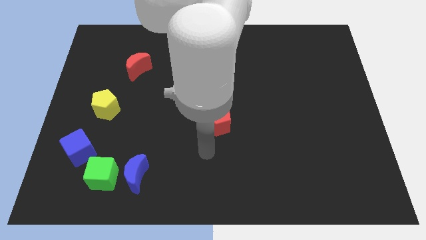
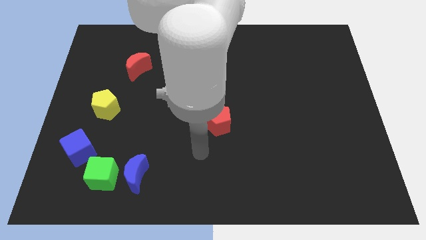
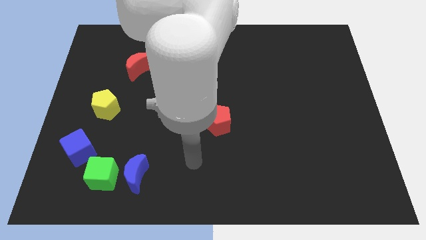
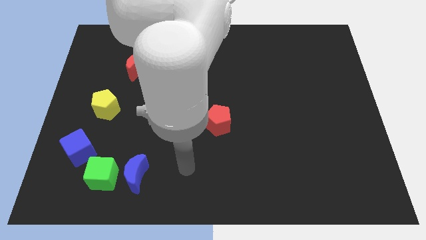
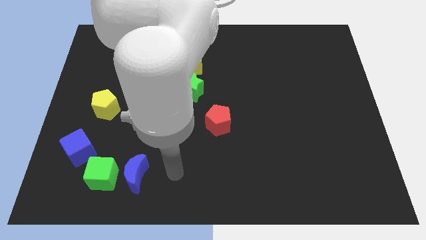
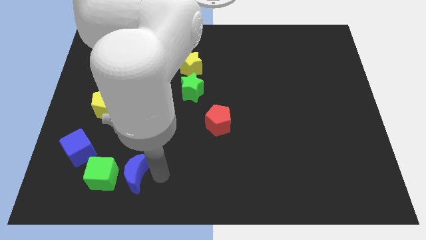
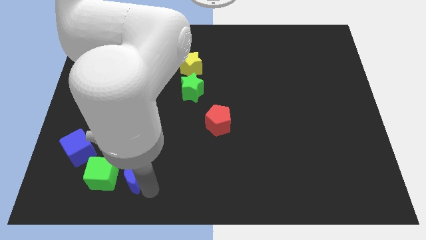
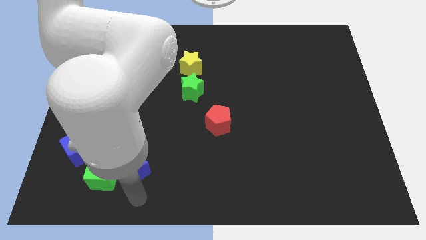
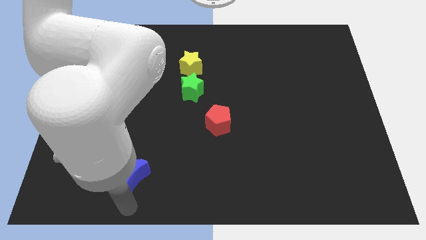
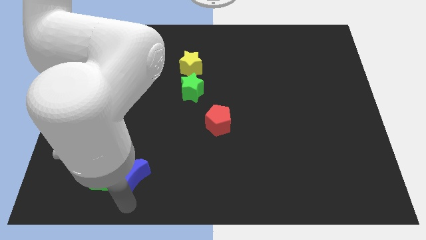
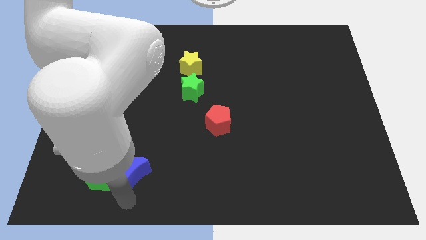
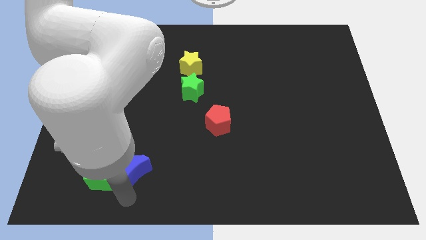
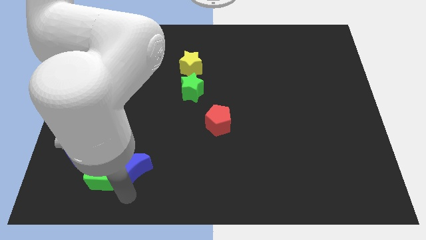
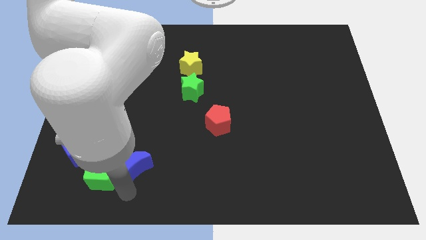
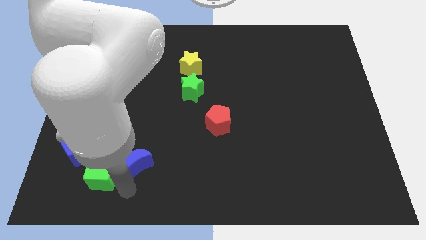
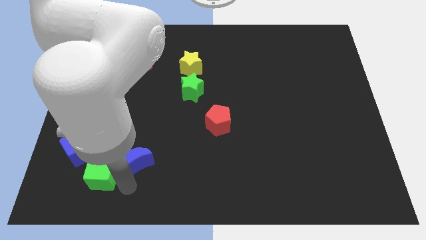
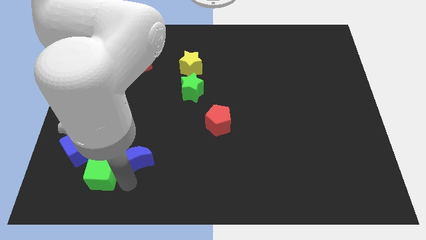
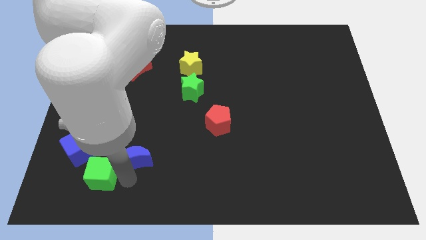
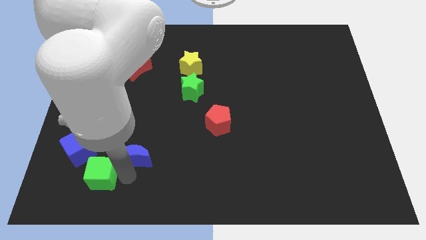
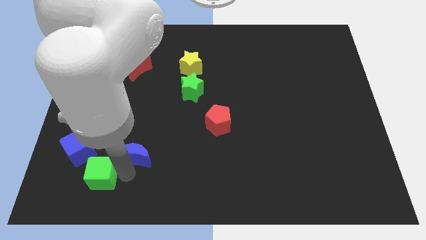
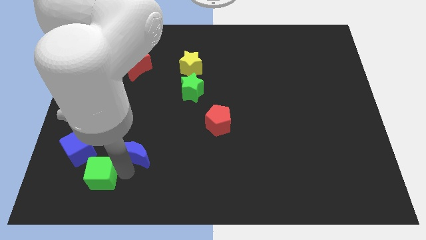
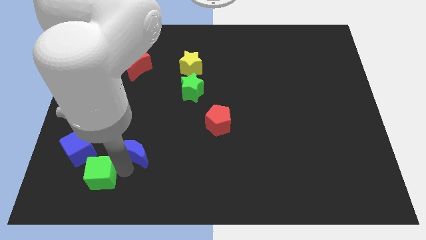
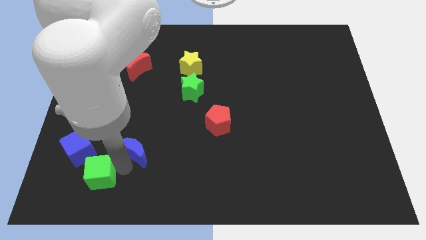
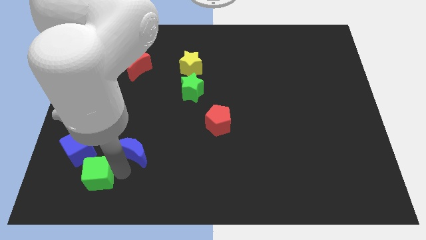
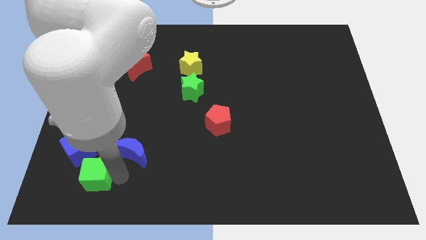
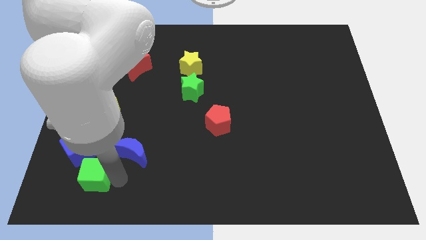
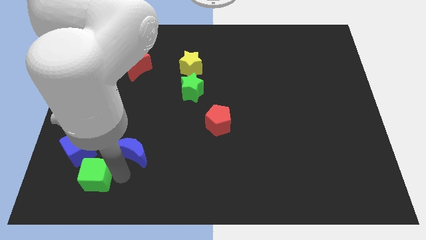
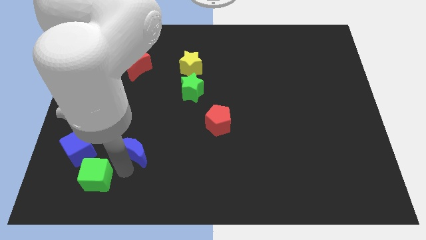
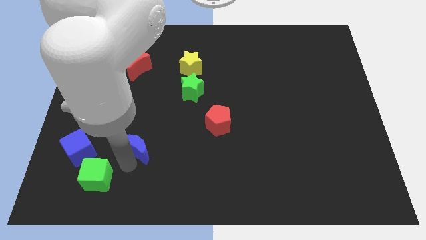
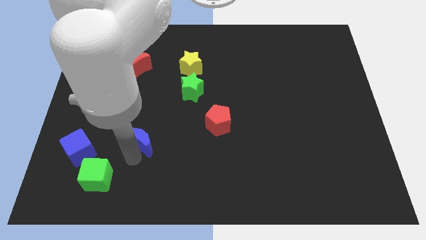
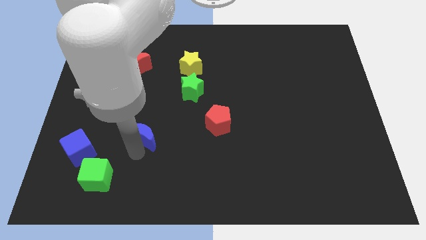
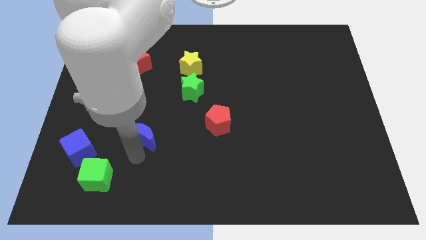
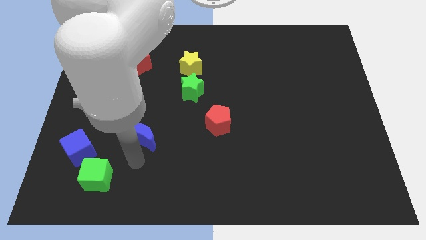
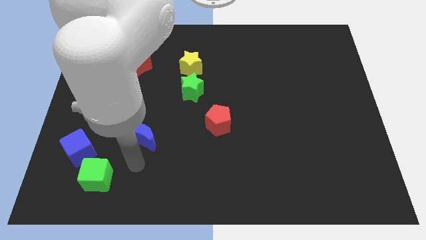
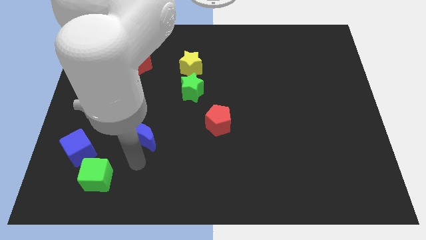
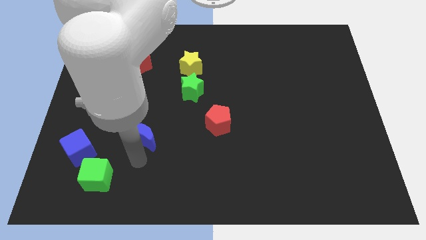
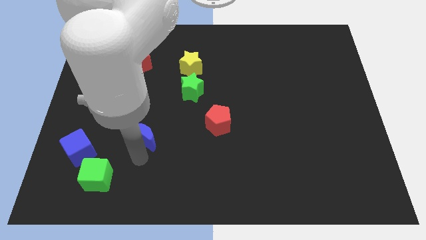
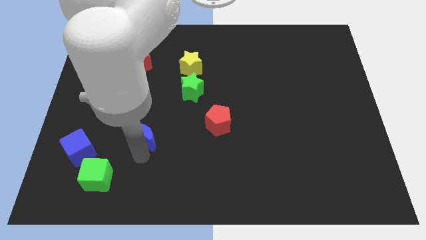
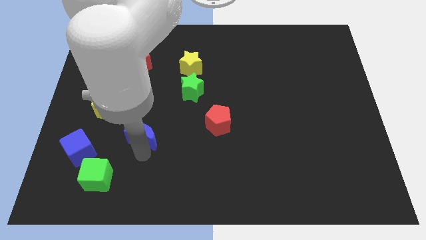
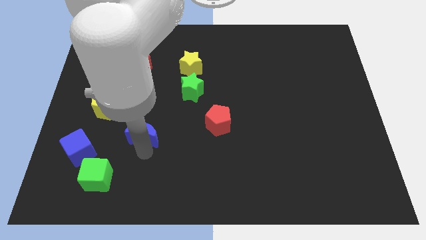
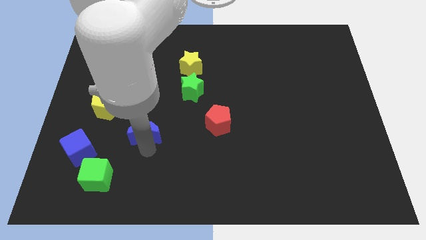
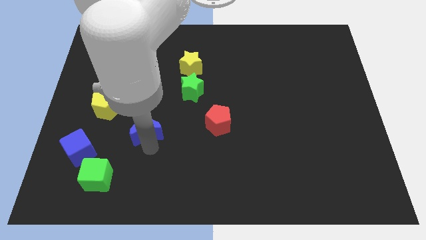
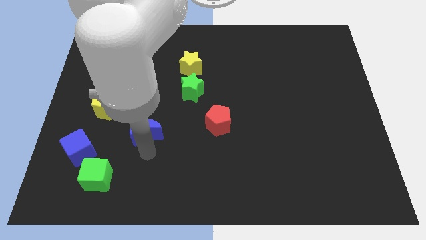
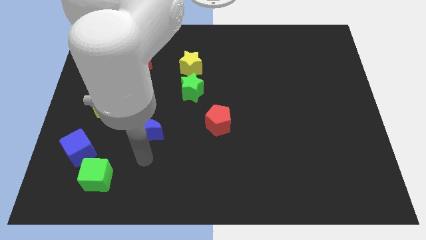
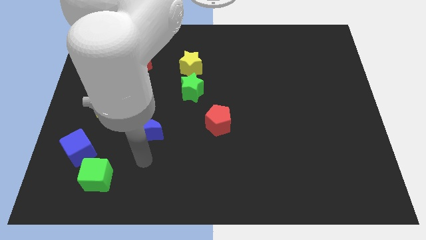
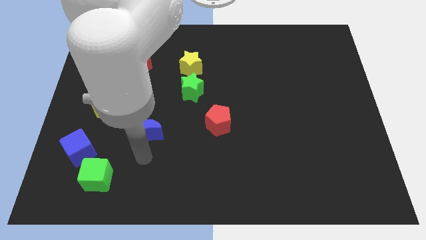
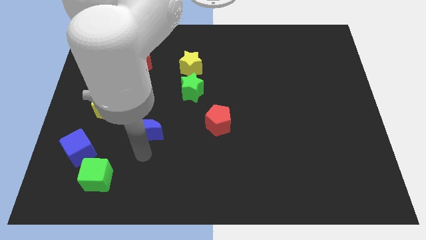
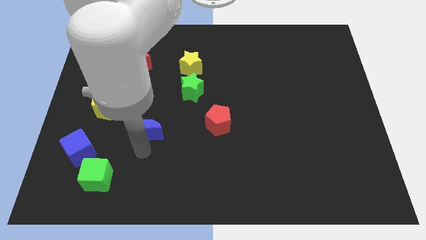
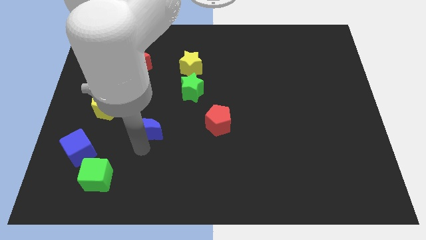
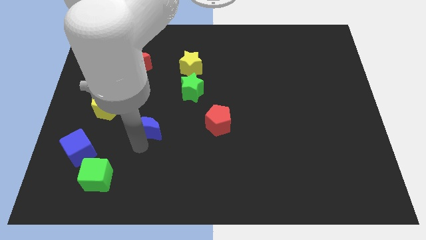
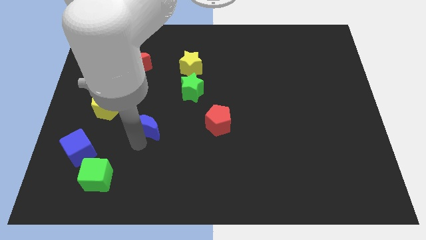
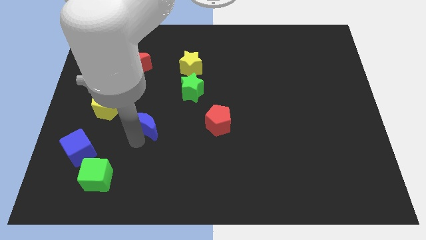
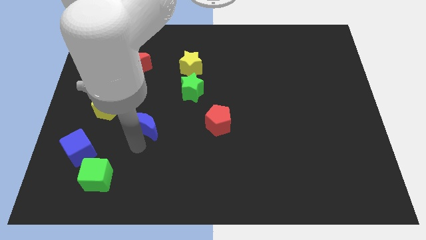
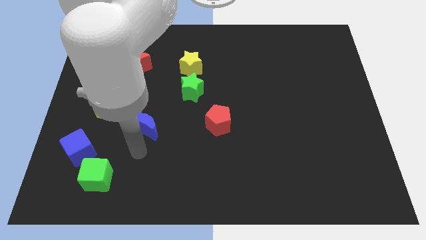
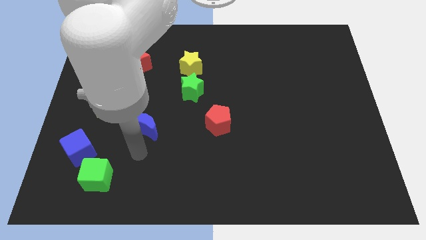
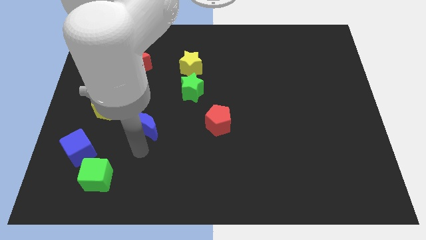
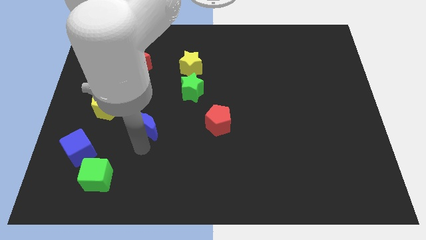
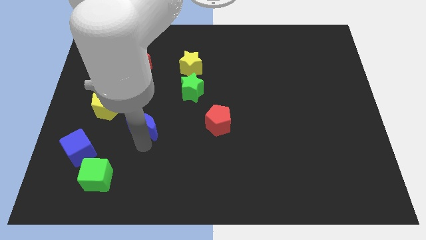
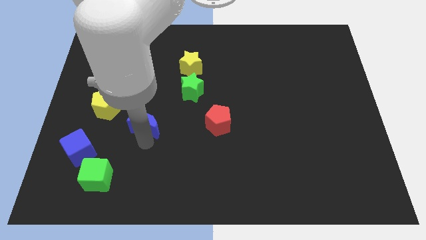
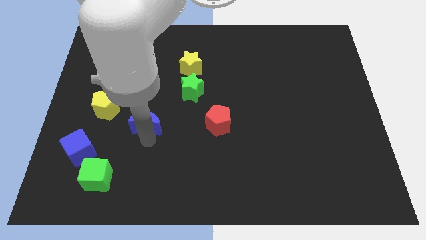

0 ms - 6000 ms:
put the blue moon just right of the yellow pentagon

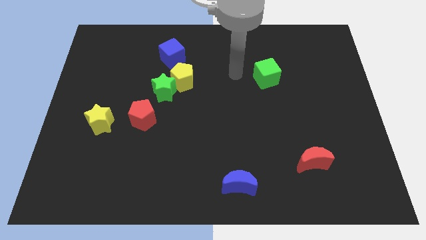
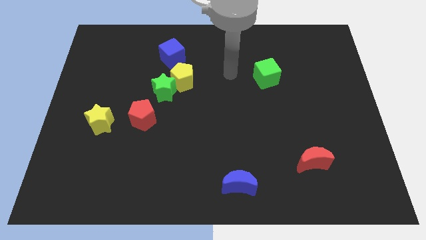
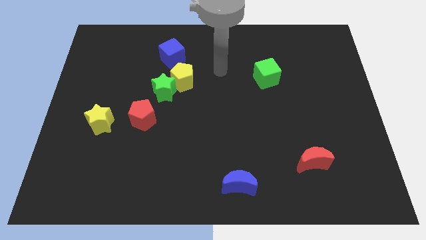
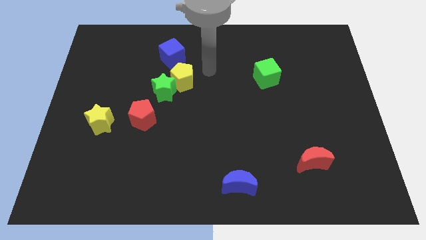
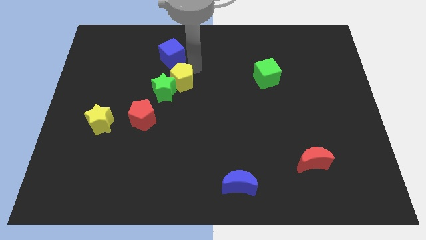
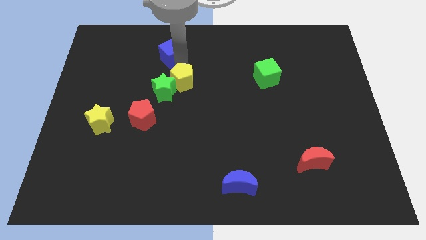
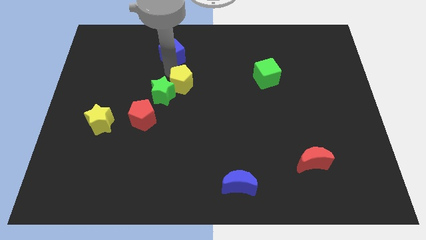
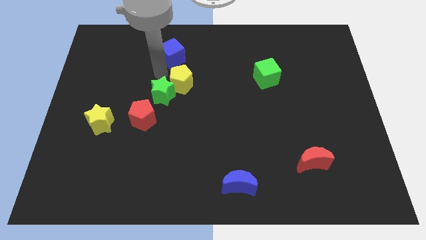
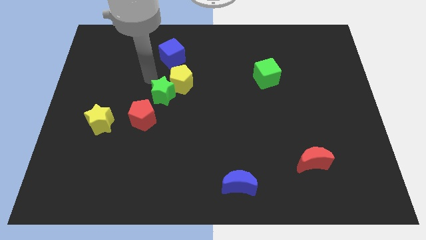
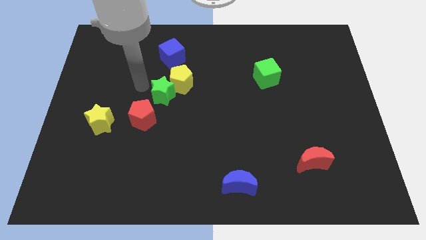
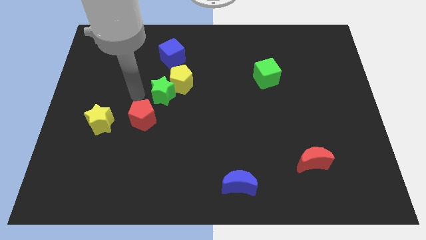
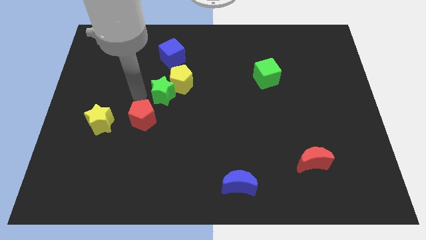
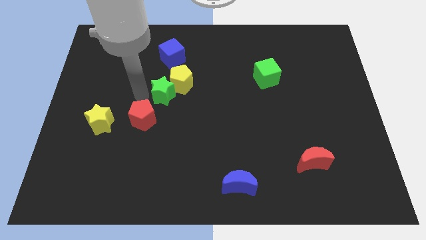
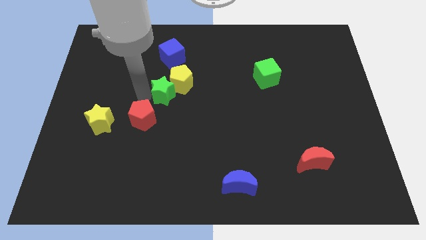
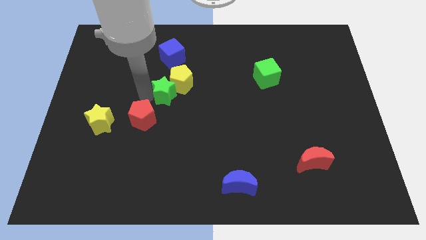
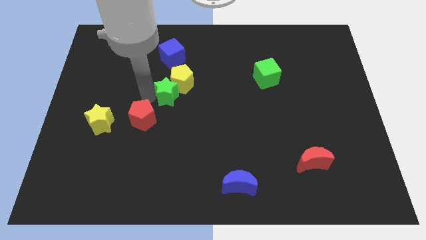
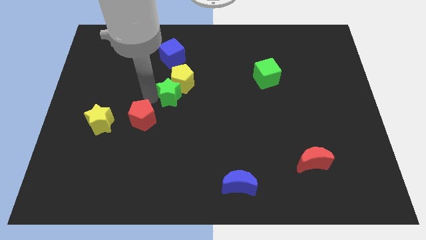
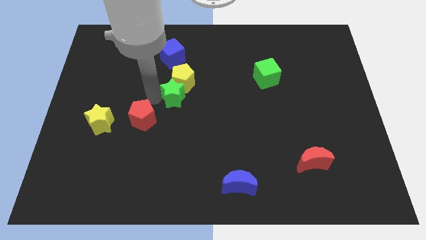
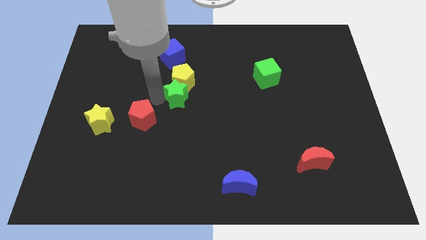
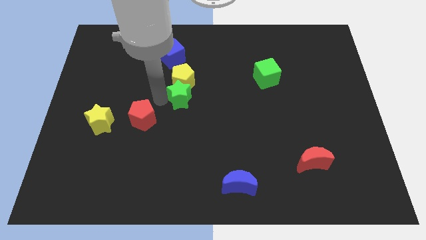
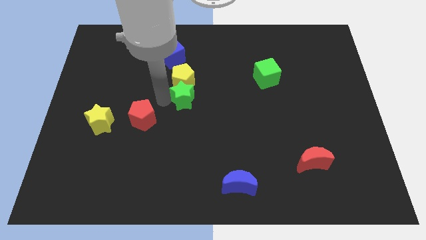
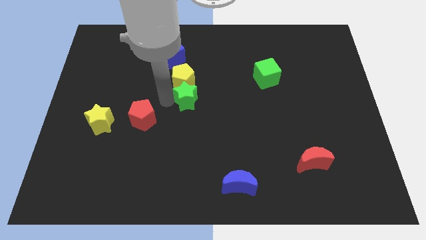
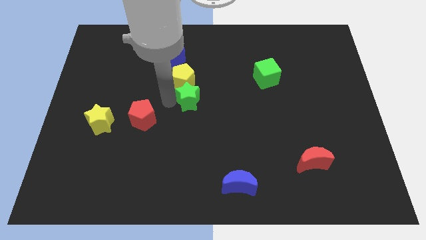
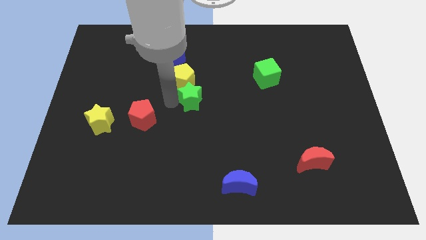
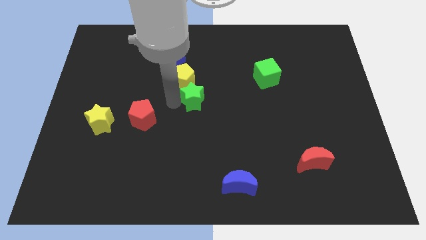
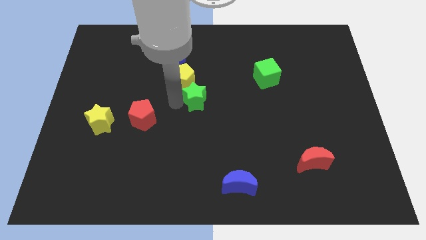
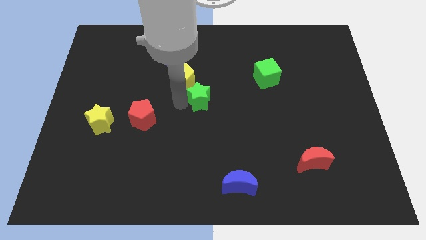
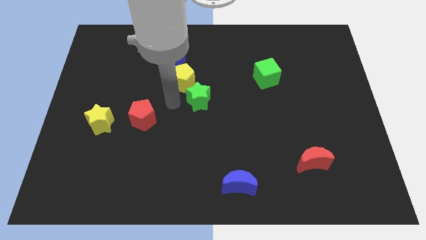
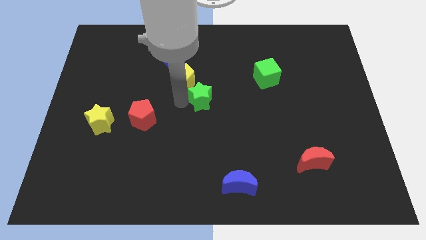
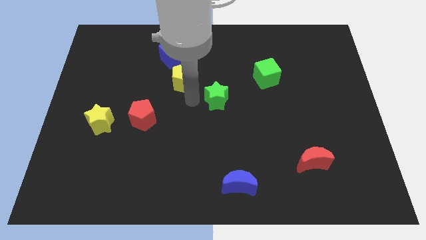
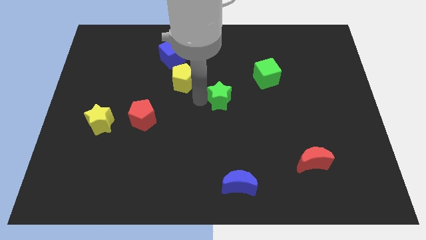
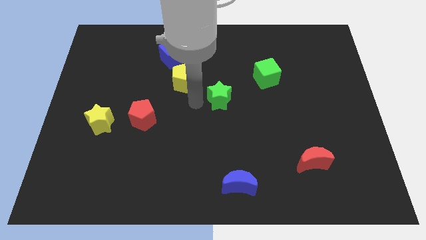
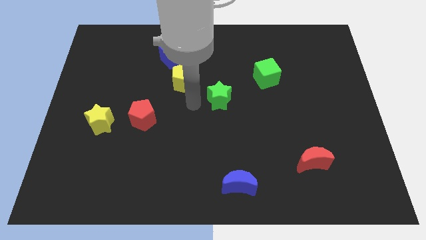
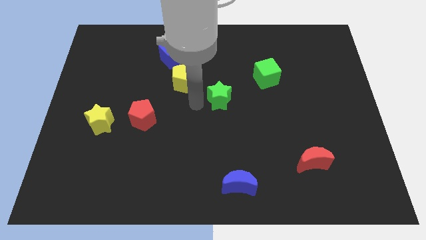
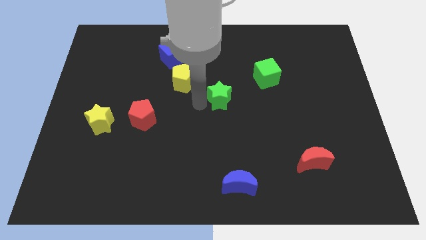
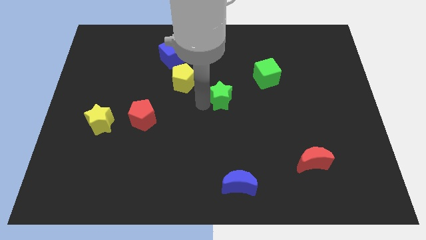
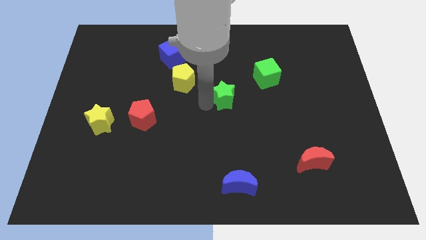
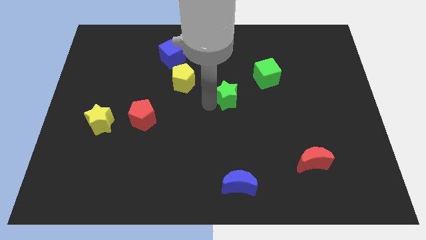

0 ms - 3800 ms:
put the green star to the bottom left of the green cube
